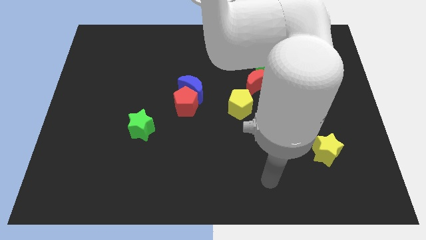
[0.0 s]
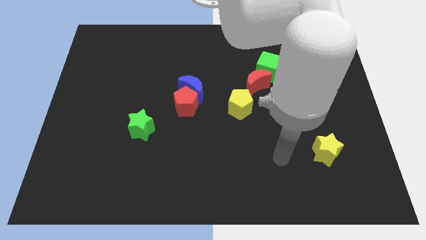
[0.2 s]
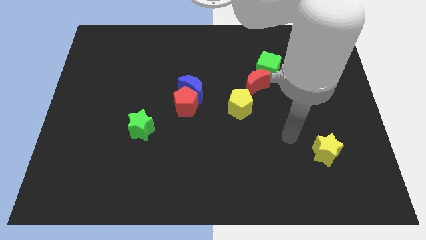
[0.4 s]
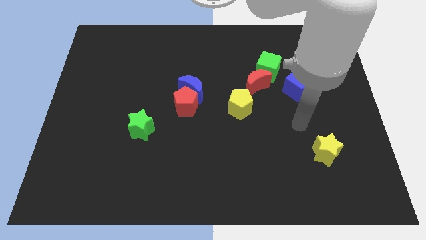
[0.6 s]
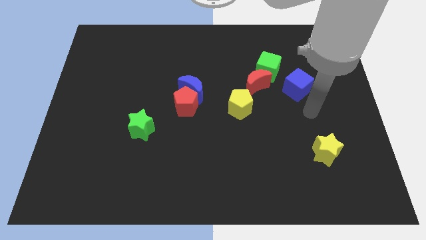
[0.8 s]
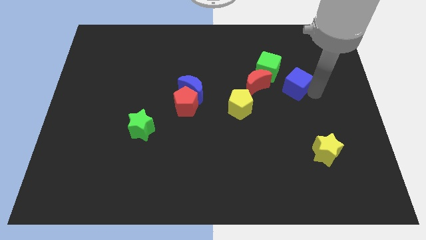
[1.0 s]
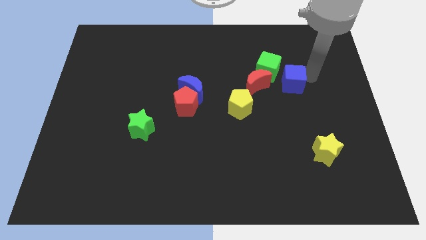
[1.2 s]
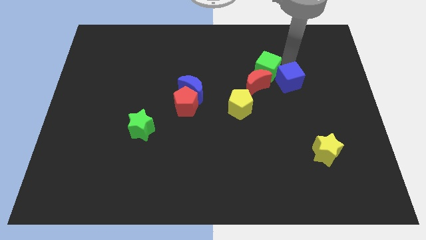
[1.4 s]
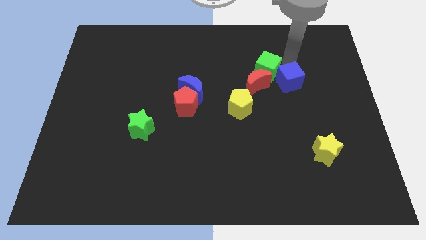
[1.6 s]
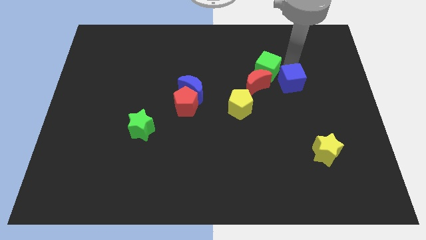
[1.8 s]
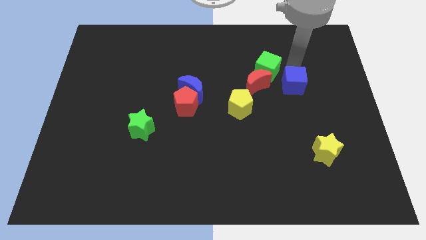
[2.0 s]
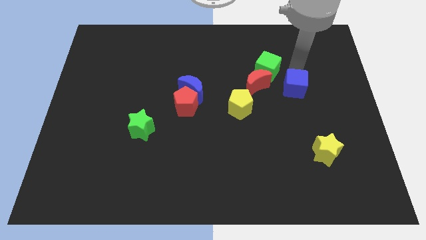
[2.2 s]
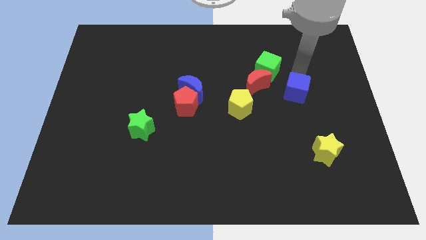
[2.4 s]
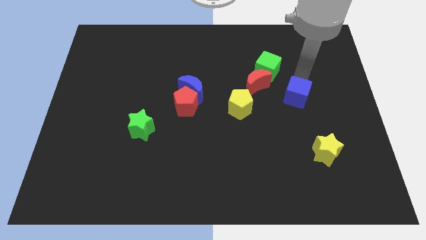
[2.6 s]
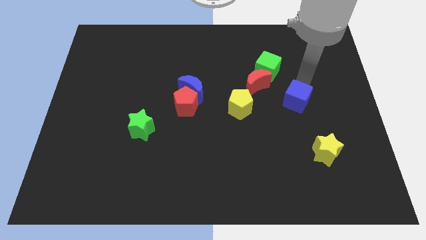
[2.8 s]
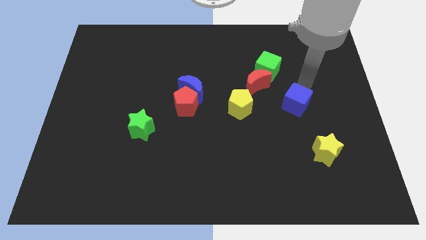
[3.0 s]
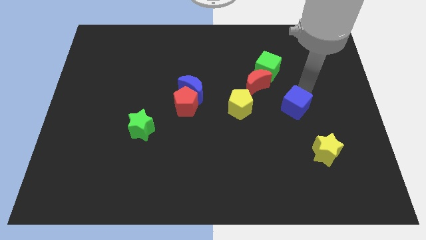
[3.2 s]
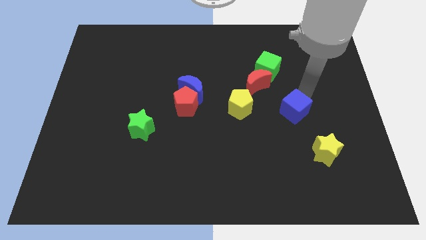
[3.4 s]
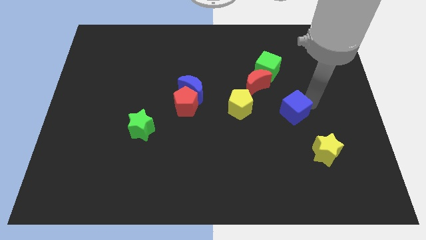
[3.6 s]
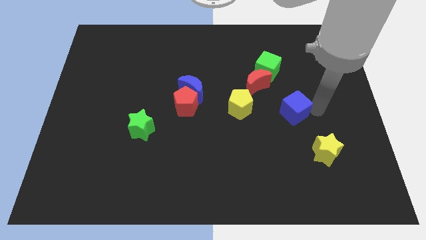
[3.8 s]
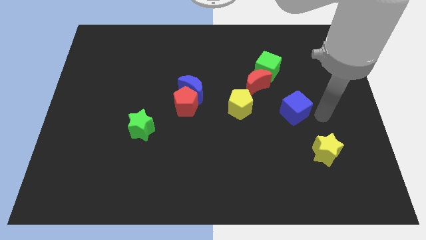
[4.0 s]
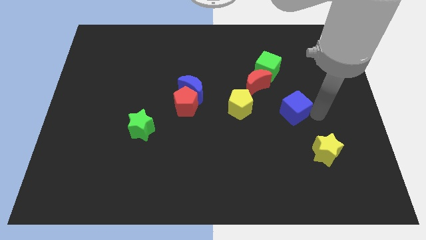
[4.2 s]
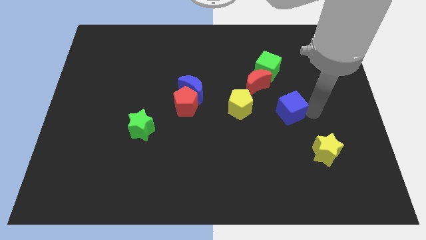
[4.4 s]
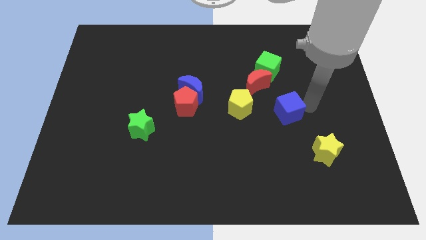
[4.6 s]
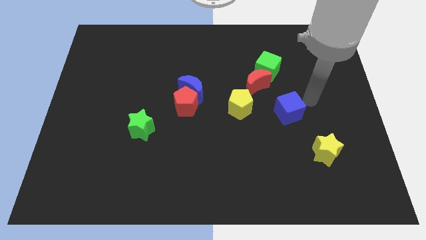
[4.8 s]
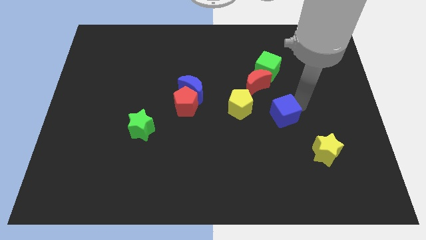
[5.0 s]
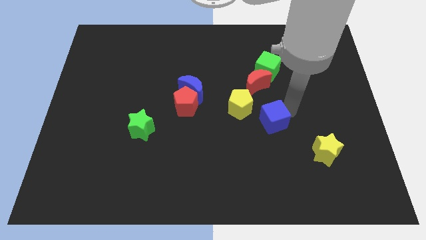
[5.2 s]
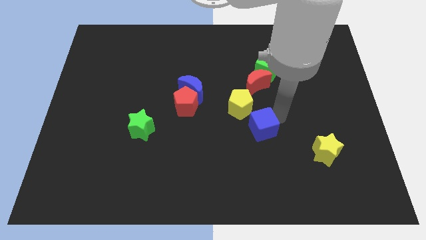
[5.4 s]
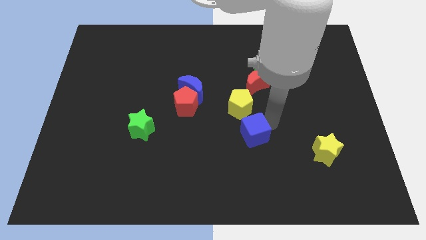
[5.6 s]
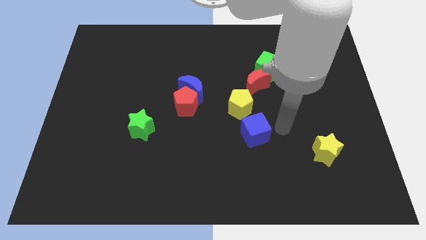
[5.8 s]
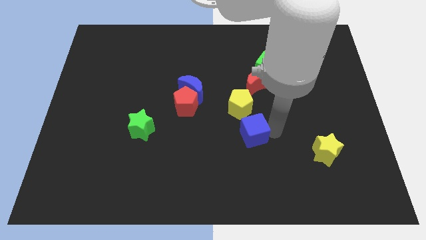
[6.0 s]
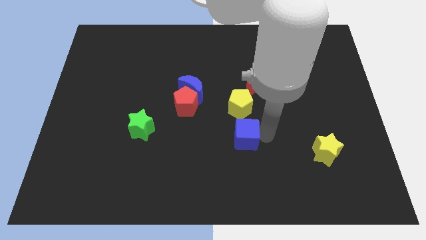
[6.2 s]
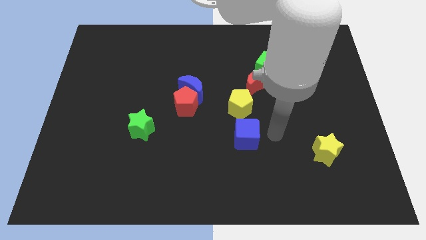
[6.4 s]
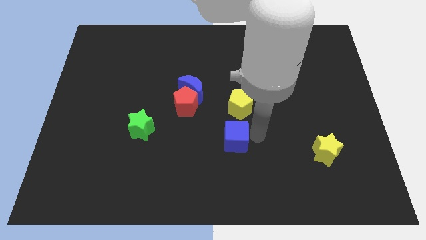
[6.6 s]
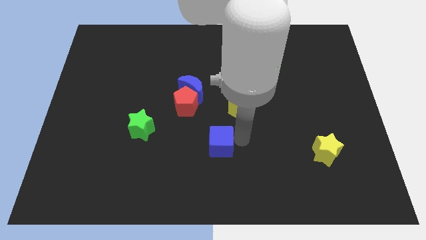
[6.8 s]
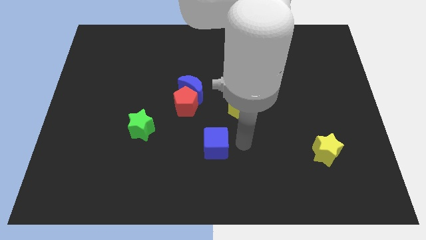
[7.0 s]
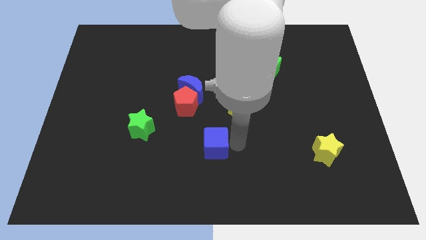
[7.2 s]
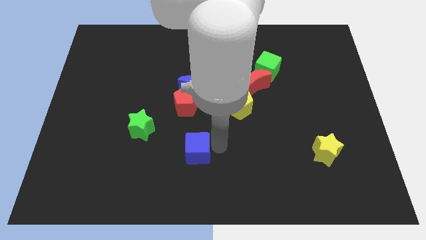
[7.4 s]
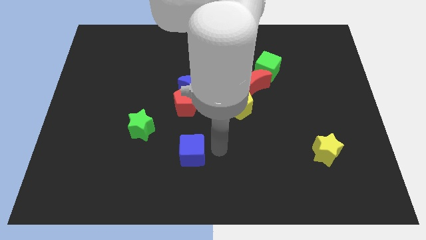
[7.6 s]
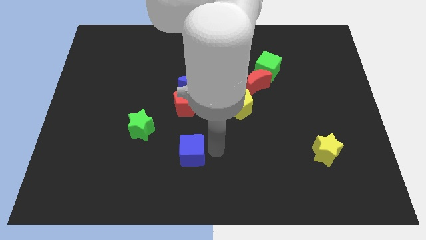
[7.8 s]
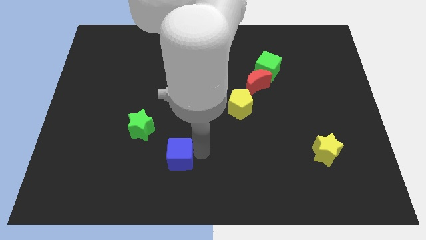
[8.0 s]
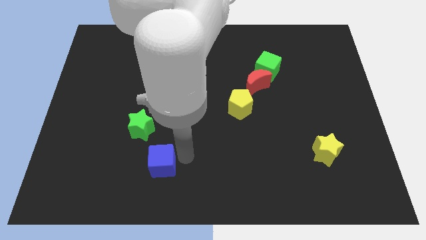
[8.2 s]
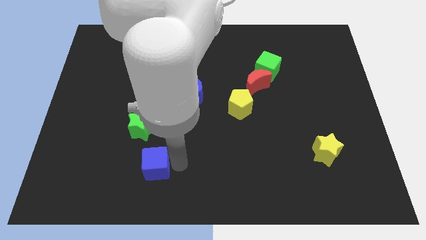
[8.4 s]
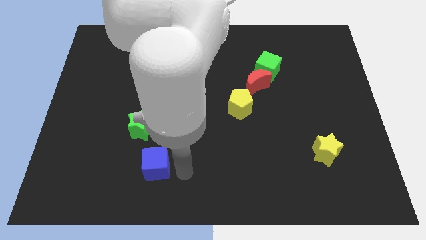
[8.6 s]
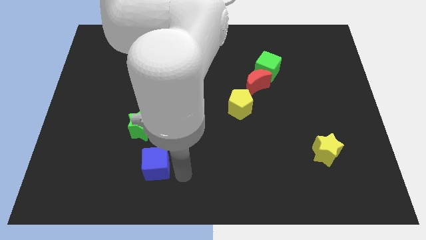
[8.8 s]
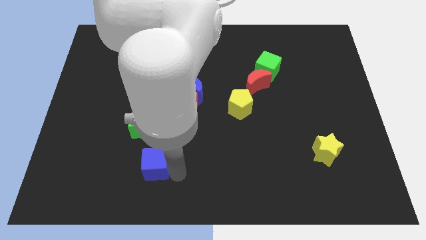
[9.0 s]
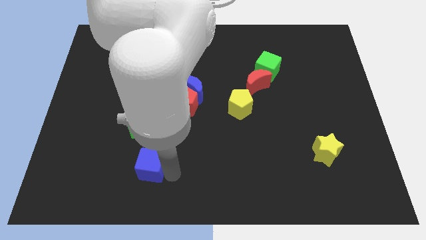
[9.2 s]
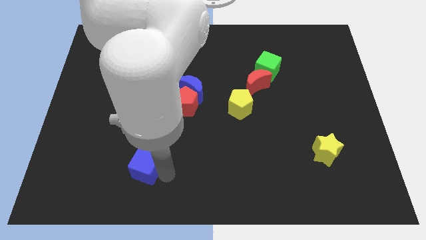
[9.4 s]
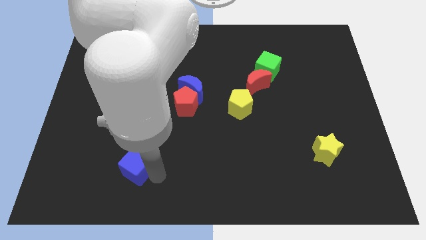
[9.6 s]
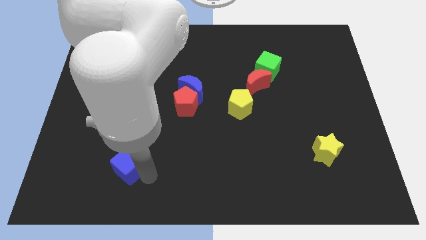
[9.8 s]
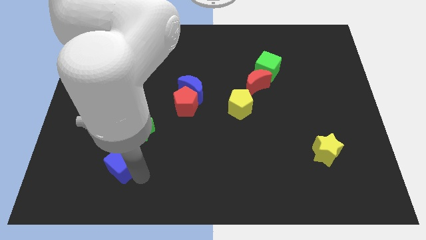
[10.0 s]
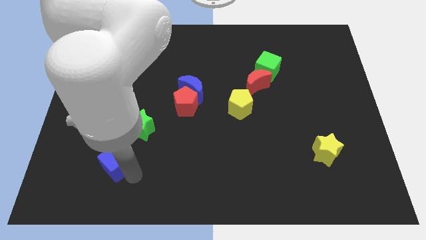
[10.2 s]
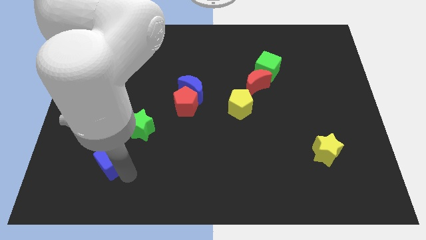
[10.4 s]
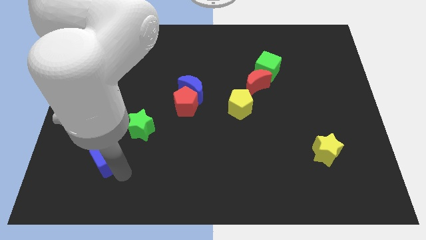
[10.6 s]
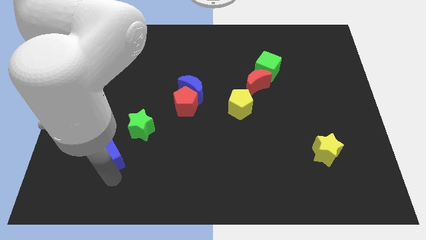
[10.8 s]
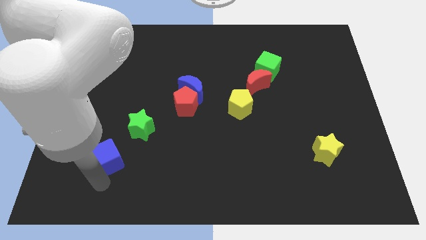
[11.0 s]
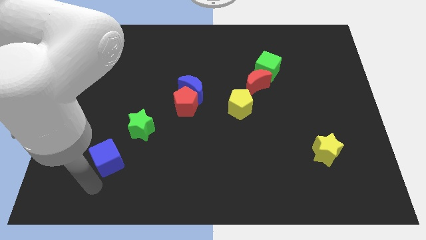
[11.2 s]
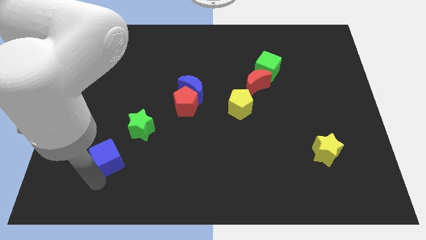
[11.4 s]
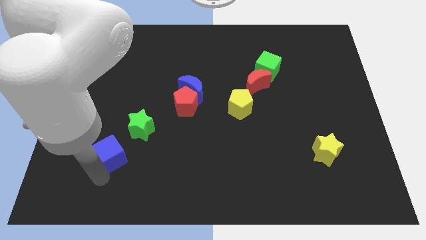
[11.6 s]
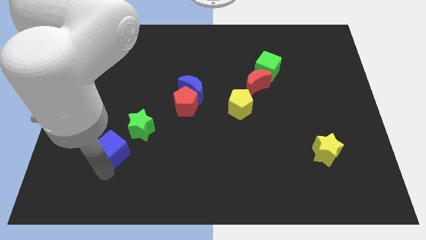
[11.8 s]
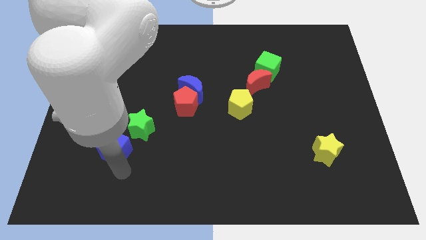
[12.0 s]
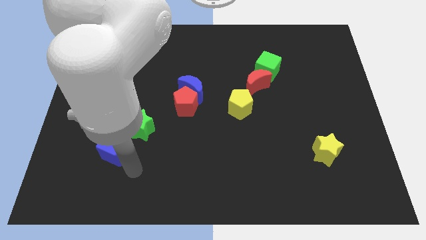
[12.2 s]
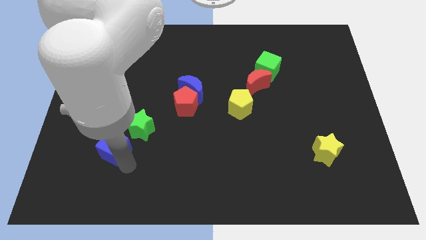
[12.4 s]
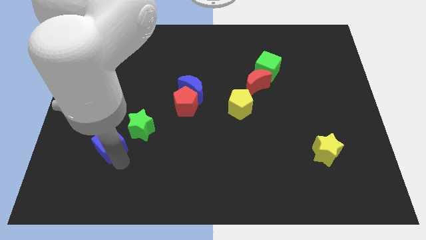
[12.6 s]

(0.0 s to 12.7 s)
push the blue cube left of the green star

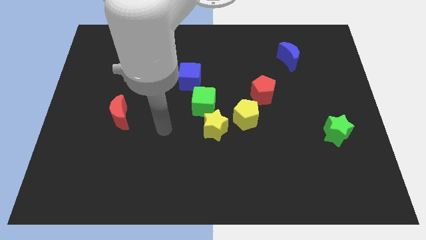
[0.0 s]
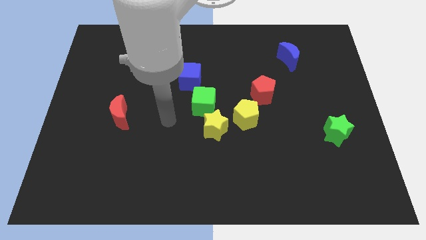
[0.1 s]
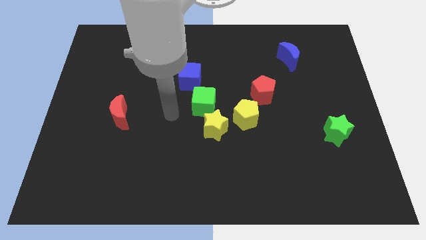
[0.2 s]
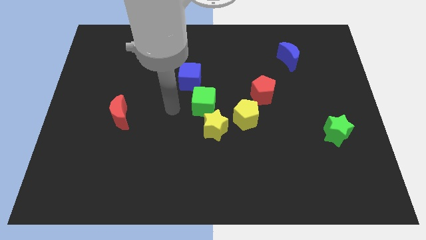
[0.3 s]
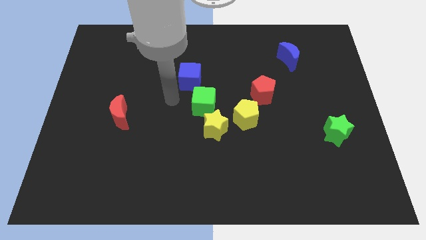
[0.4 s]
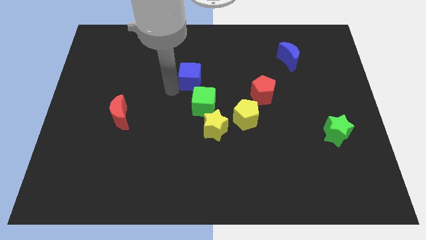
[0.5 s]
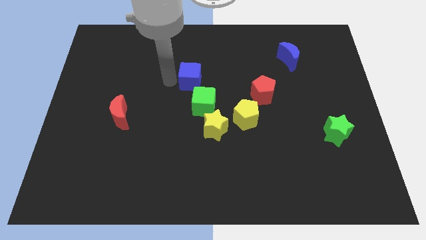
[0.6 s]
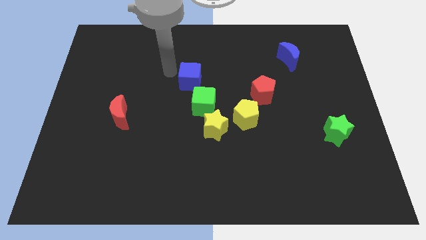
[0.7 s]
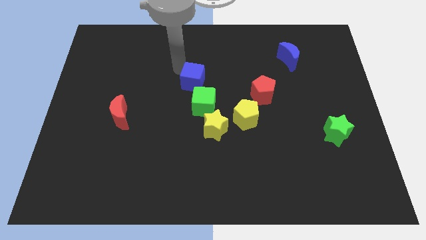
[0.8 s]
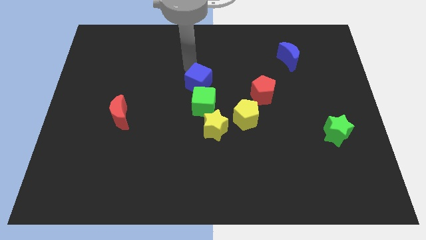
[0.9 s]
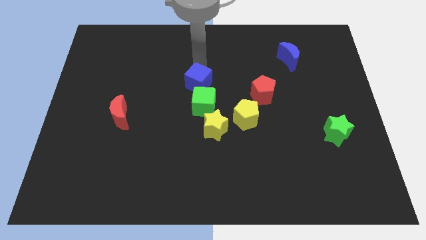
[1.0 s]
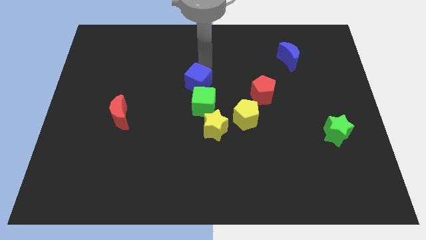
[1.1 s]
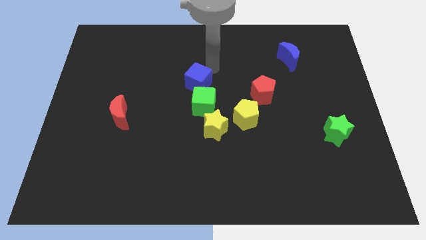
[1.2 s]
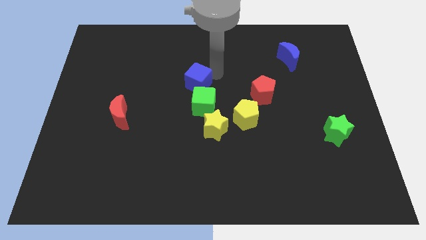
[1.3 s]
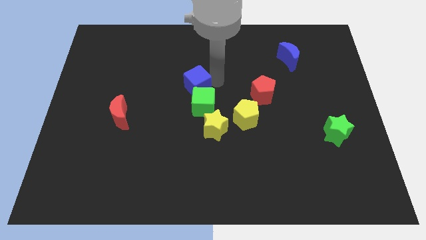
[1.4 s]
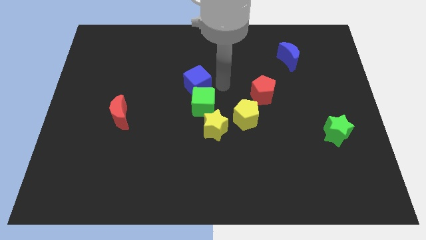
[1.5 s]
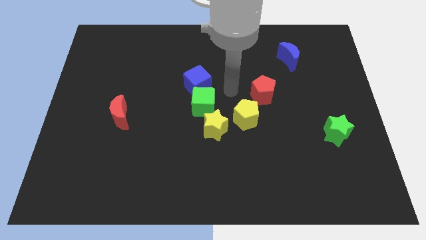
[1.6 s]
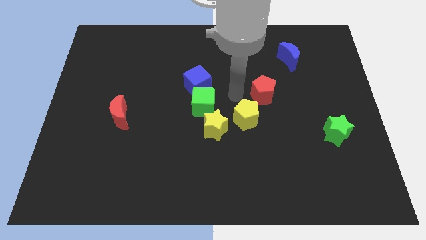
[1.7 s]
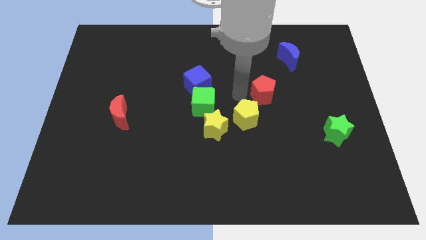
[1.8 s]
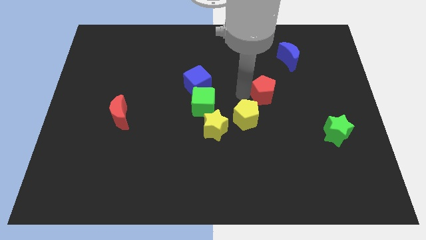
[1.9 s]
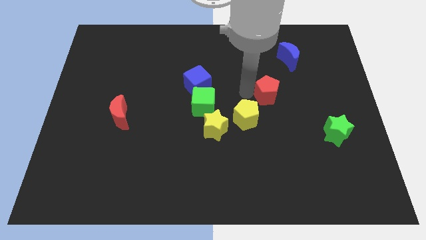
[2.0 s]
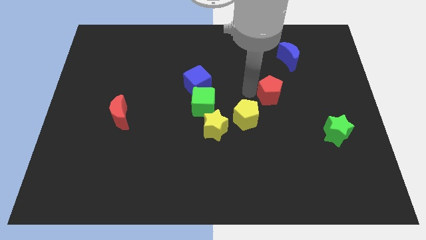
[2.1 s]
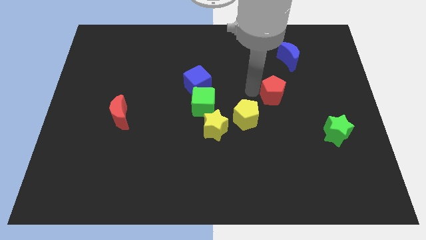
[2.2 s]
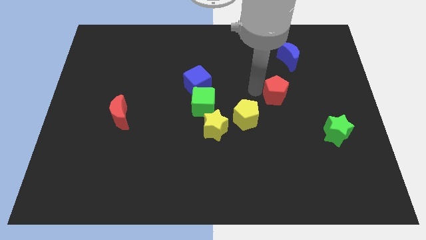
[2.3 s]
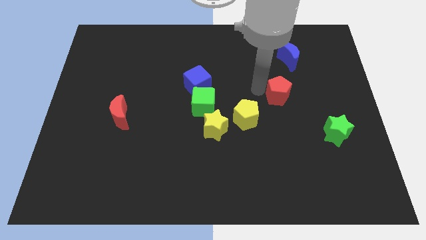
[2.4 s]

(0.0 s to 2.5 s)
put the red pentagon to the bottom side of the blue moon
